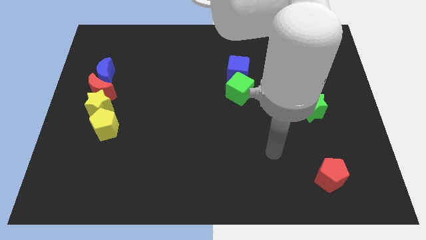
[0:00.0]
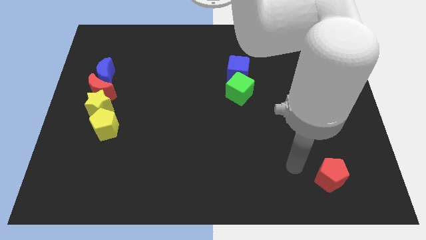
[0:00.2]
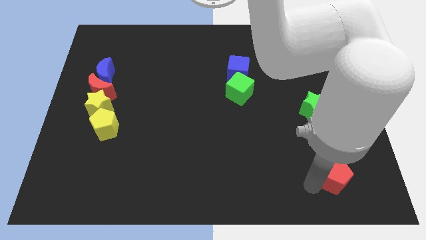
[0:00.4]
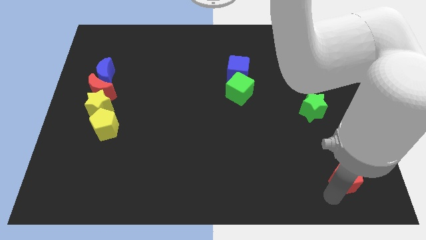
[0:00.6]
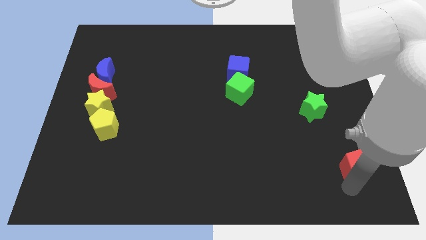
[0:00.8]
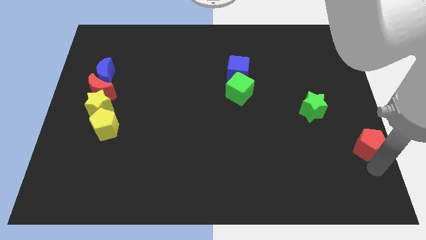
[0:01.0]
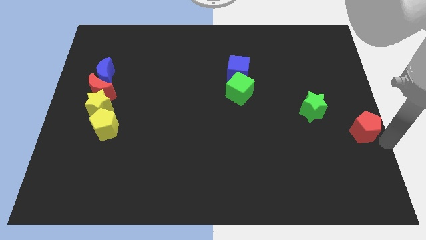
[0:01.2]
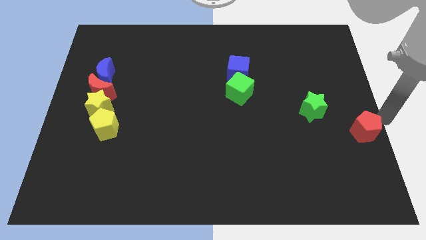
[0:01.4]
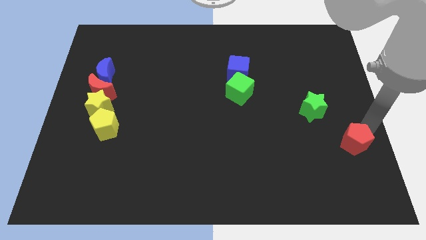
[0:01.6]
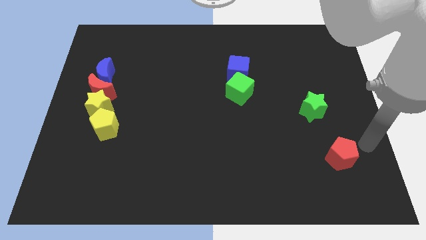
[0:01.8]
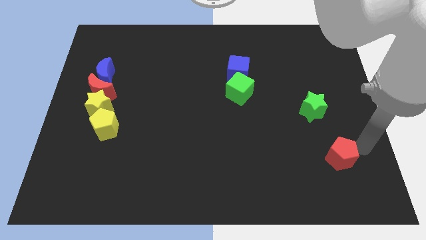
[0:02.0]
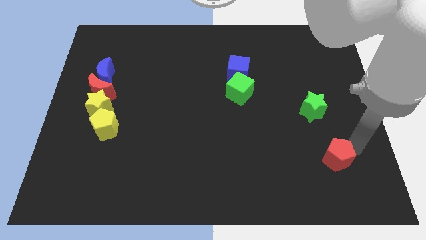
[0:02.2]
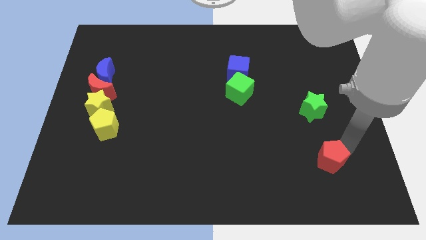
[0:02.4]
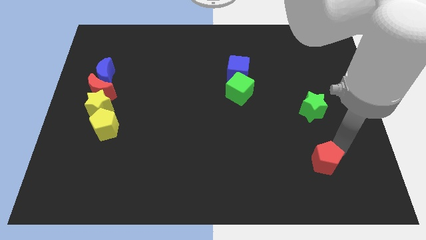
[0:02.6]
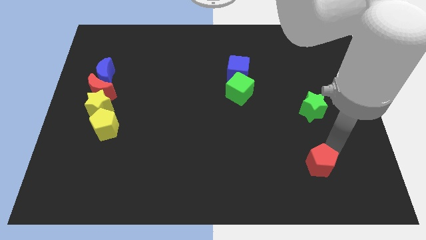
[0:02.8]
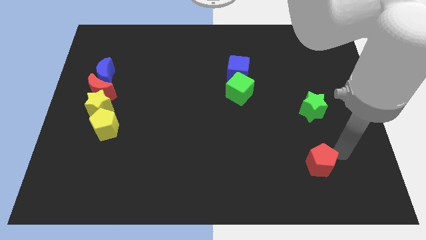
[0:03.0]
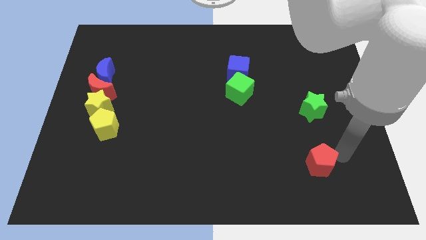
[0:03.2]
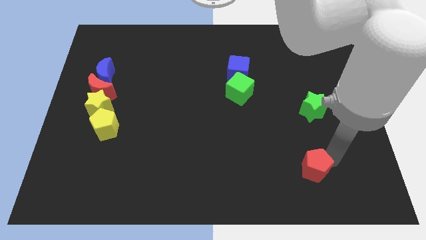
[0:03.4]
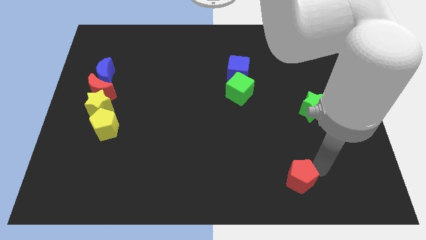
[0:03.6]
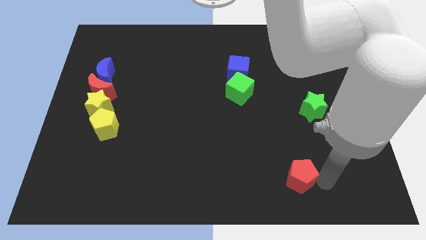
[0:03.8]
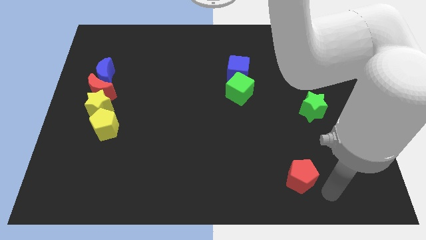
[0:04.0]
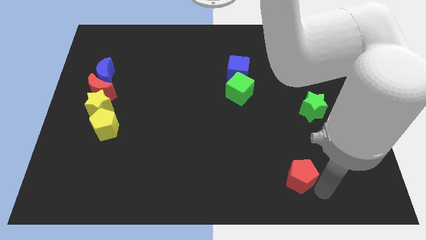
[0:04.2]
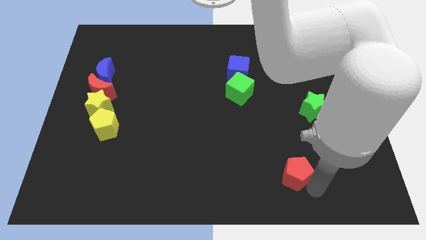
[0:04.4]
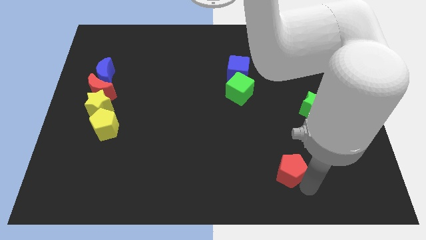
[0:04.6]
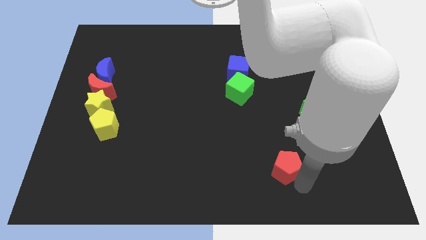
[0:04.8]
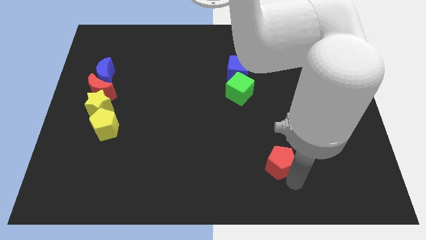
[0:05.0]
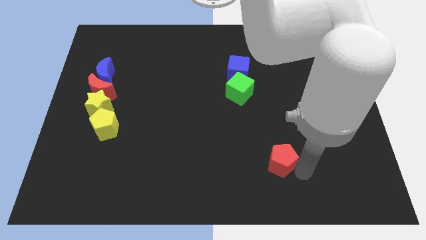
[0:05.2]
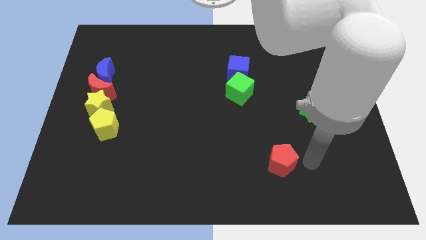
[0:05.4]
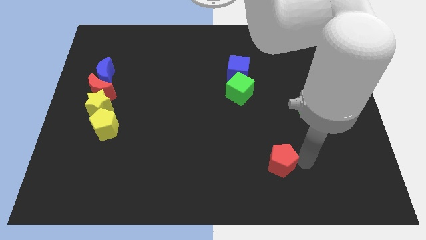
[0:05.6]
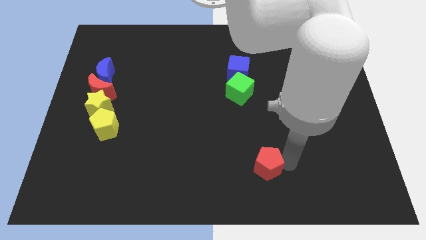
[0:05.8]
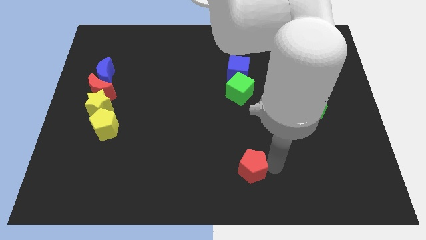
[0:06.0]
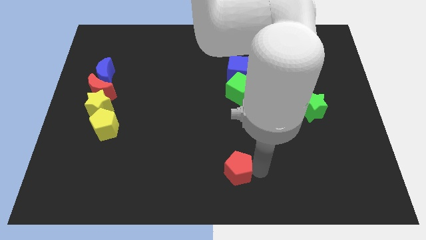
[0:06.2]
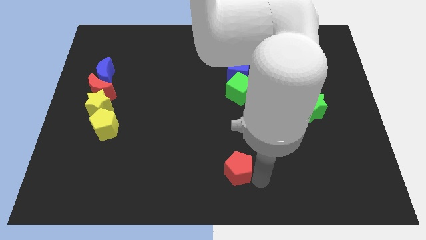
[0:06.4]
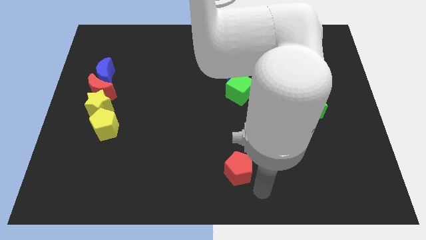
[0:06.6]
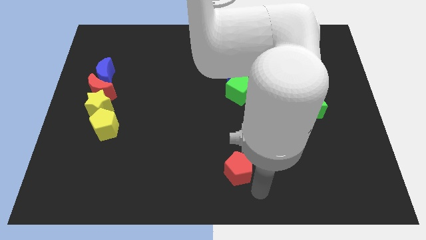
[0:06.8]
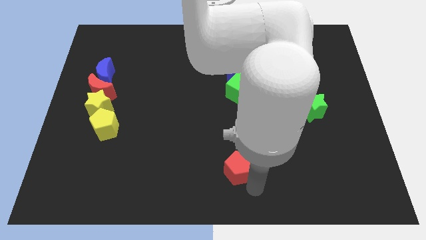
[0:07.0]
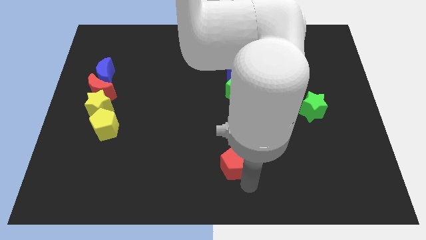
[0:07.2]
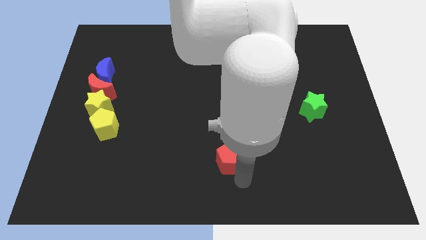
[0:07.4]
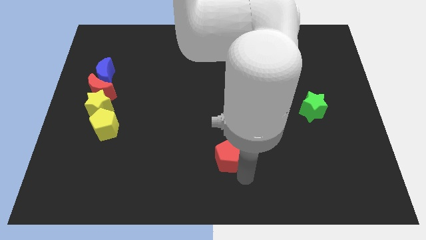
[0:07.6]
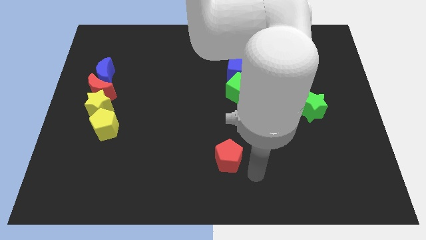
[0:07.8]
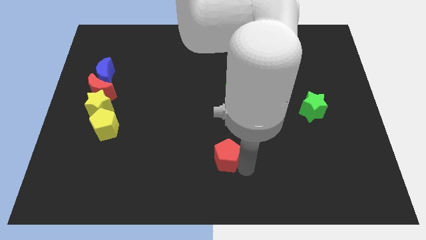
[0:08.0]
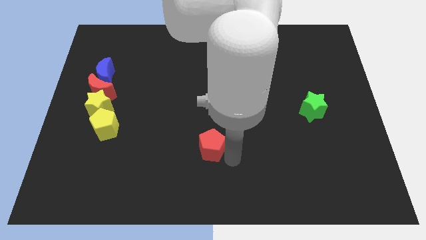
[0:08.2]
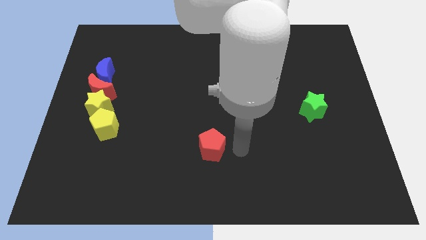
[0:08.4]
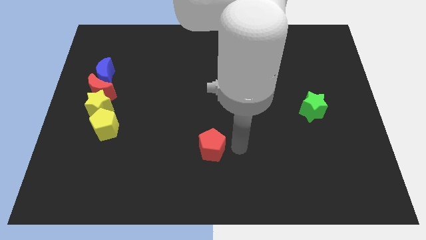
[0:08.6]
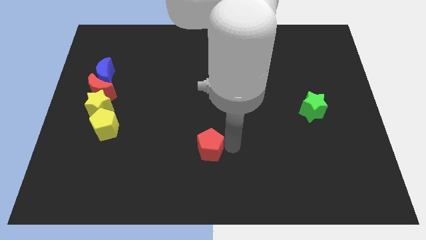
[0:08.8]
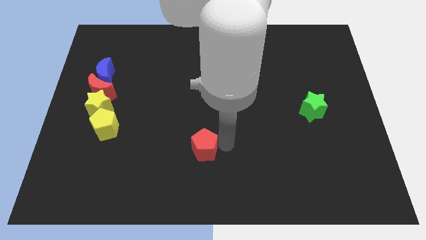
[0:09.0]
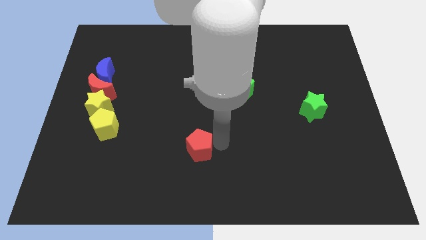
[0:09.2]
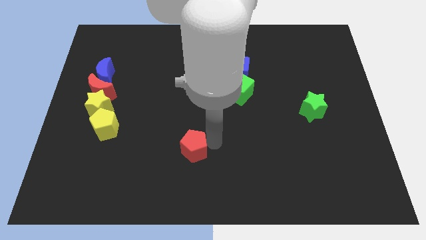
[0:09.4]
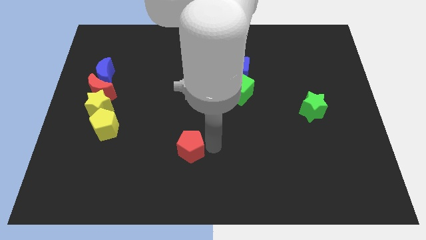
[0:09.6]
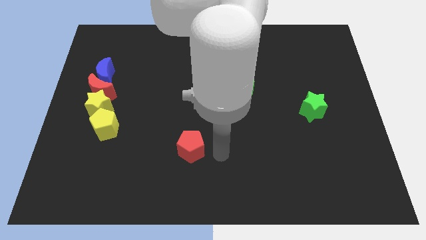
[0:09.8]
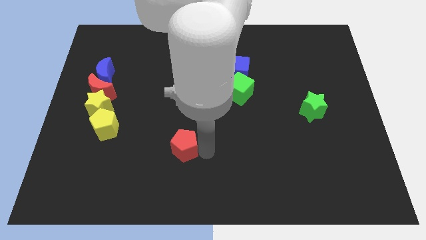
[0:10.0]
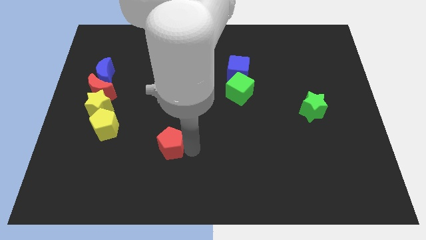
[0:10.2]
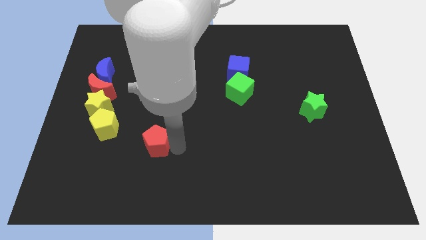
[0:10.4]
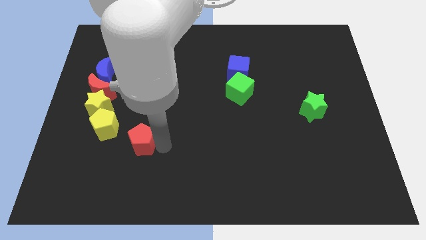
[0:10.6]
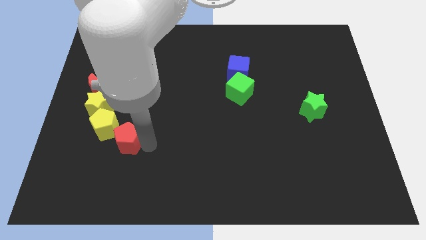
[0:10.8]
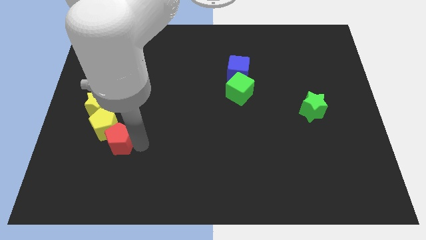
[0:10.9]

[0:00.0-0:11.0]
move the red pentagon next to the yellow pentagon

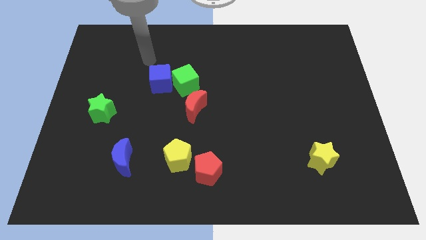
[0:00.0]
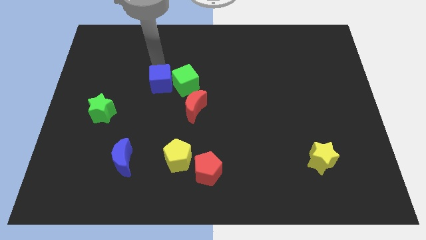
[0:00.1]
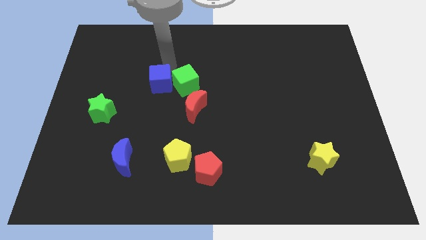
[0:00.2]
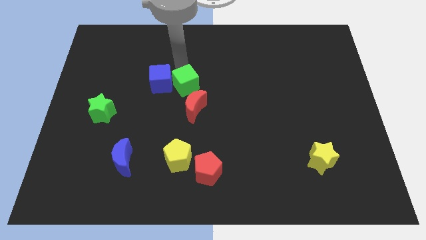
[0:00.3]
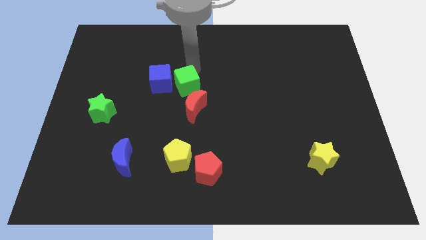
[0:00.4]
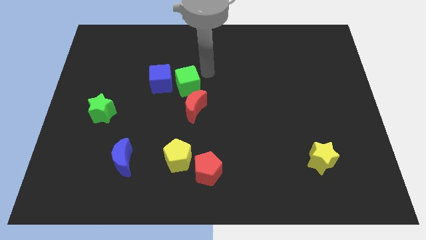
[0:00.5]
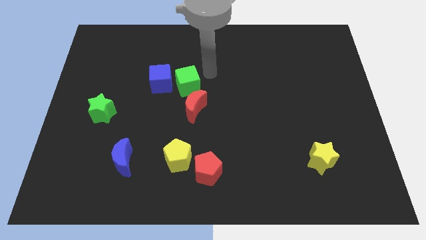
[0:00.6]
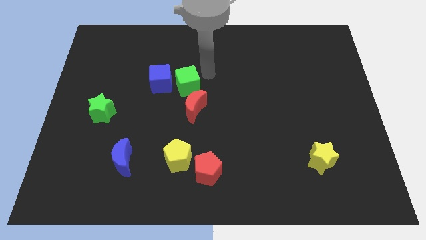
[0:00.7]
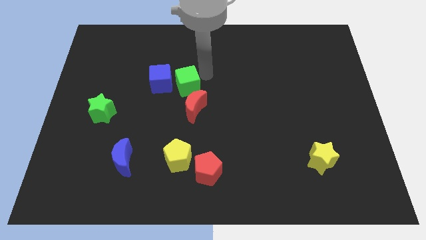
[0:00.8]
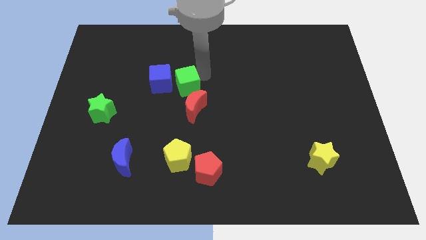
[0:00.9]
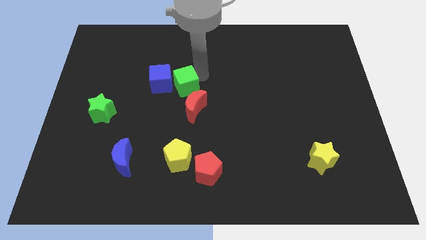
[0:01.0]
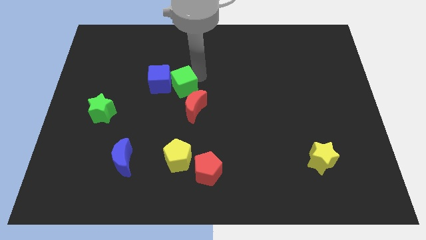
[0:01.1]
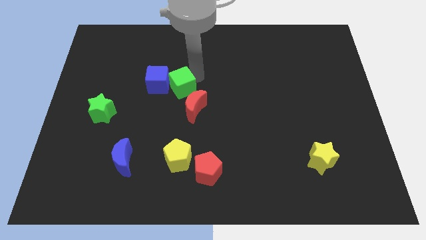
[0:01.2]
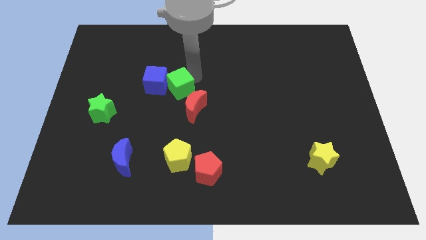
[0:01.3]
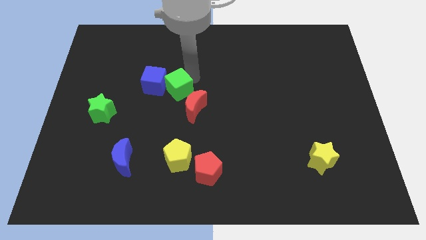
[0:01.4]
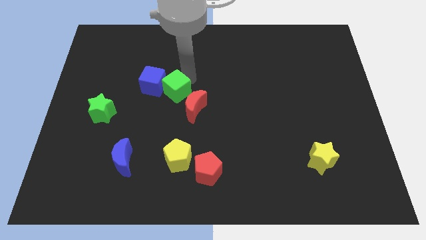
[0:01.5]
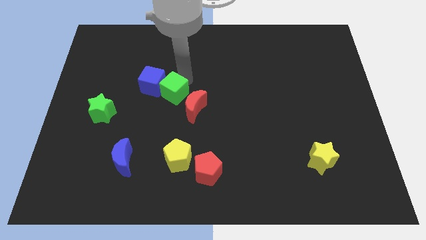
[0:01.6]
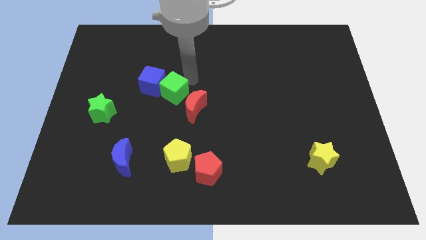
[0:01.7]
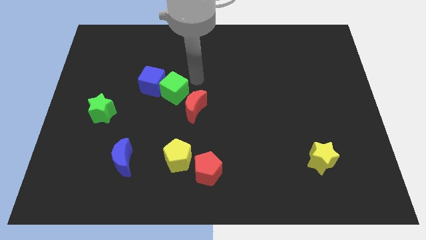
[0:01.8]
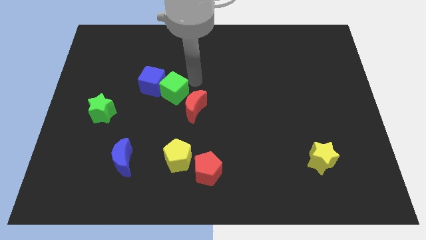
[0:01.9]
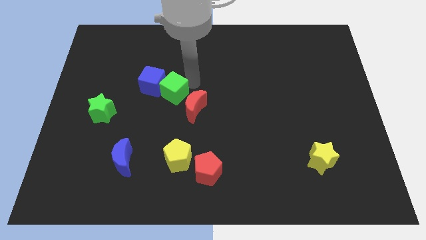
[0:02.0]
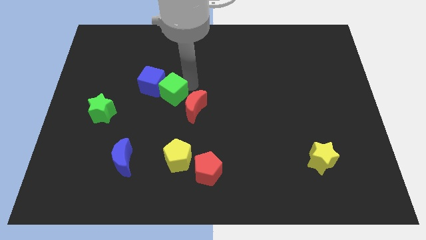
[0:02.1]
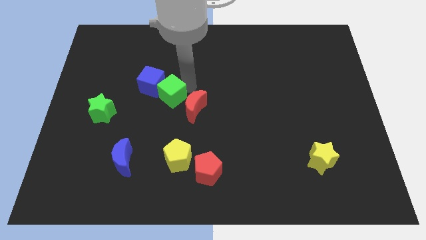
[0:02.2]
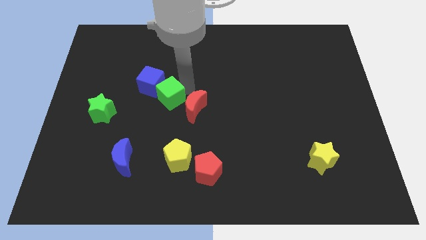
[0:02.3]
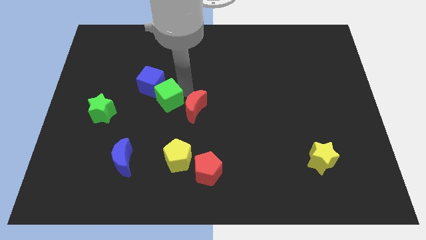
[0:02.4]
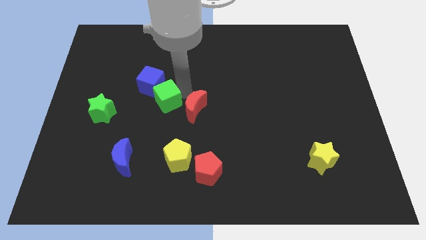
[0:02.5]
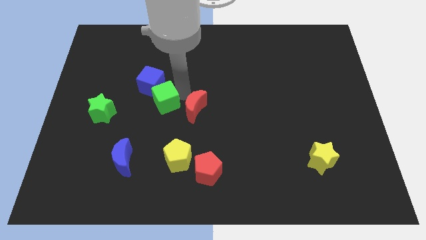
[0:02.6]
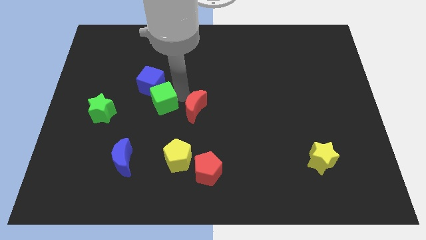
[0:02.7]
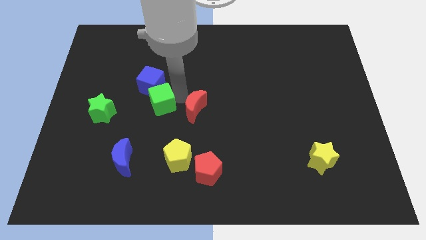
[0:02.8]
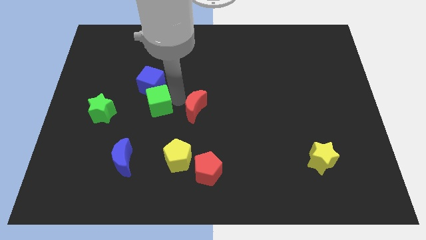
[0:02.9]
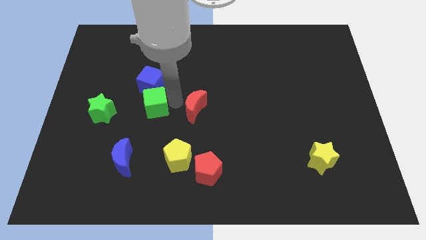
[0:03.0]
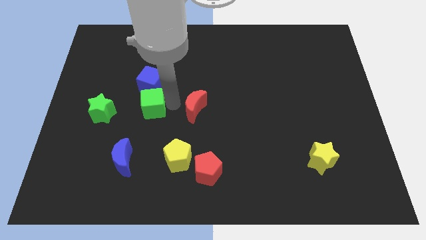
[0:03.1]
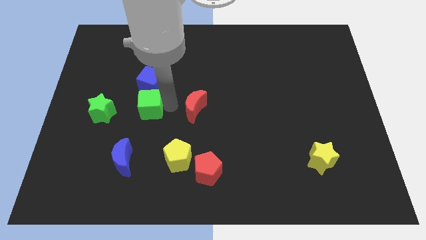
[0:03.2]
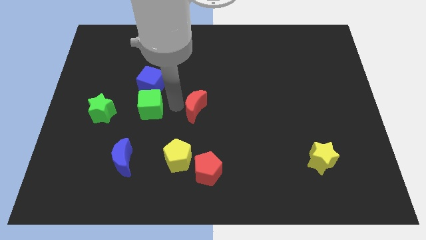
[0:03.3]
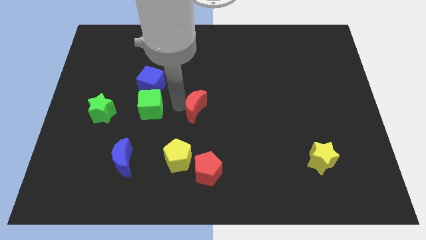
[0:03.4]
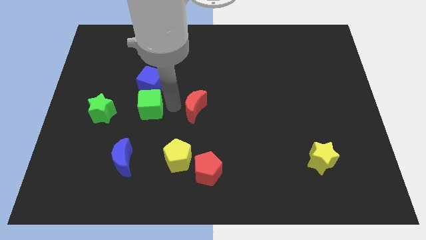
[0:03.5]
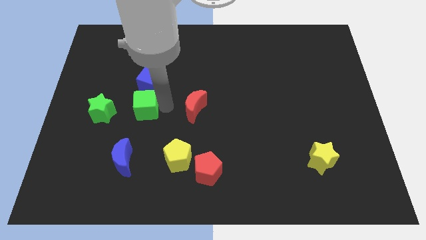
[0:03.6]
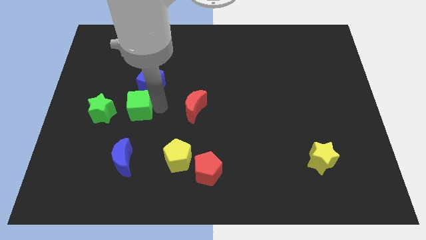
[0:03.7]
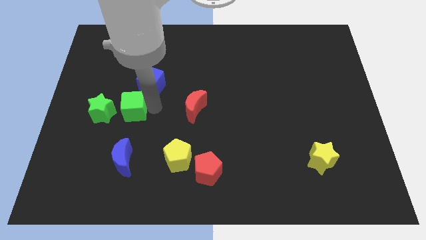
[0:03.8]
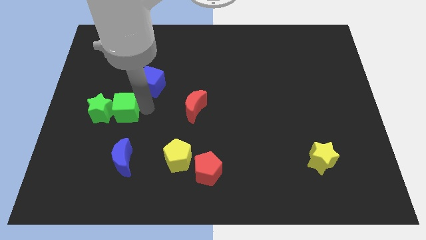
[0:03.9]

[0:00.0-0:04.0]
put the green cube close to the green star
